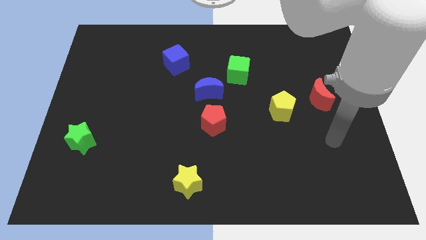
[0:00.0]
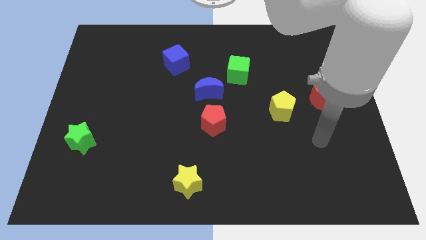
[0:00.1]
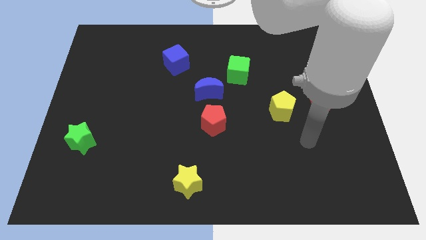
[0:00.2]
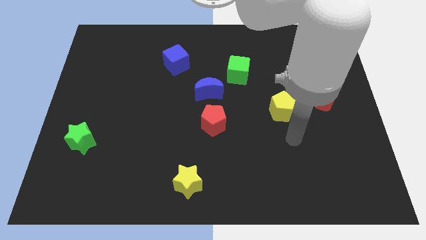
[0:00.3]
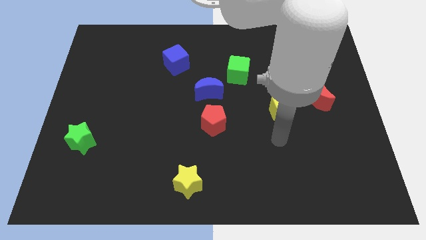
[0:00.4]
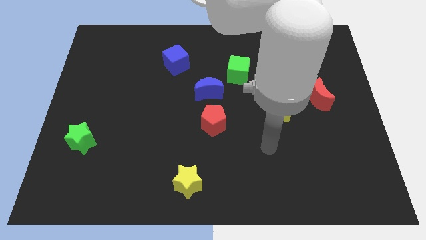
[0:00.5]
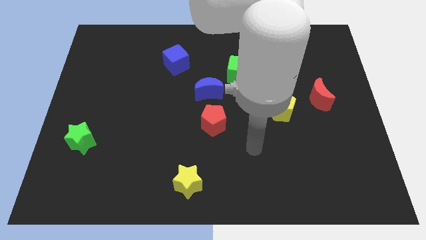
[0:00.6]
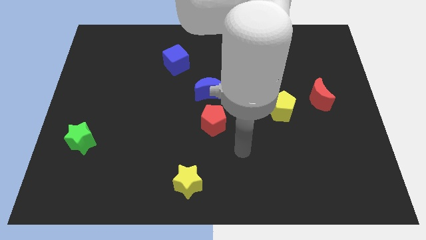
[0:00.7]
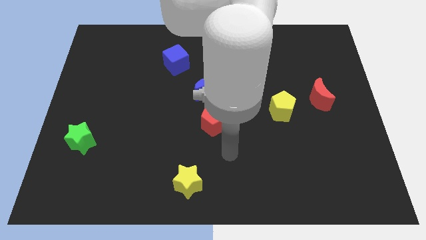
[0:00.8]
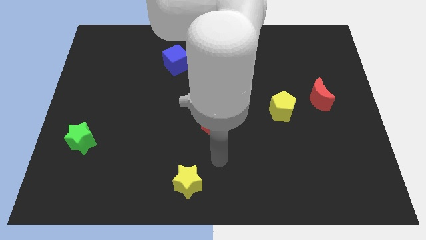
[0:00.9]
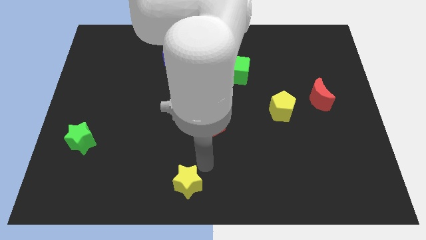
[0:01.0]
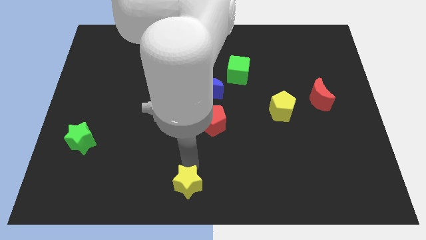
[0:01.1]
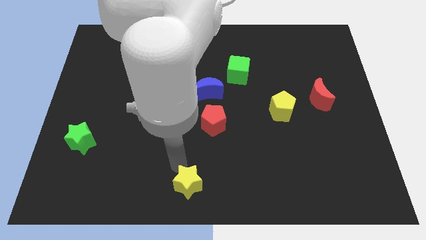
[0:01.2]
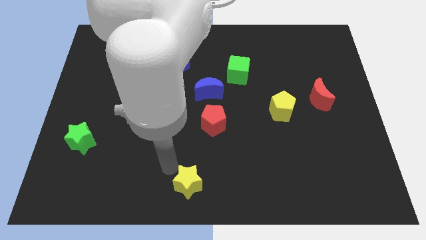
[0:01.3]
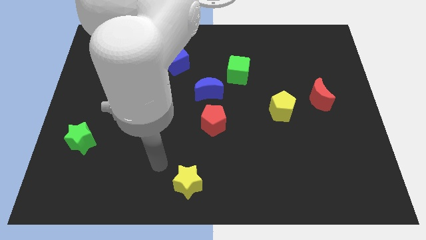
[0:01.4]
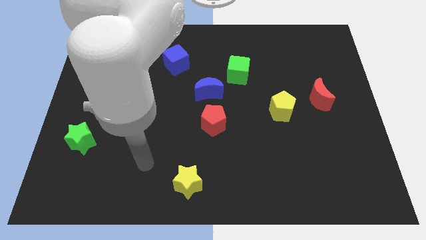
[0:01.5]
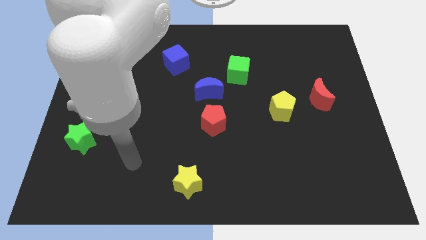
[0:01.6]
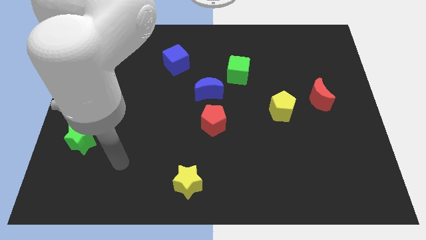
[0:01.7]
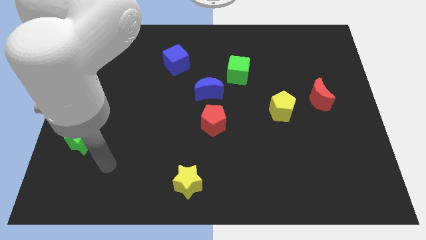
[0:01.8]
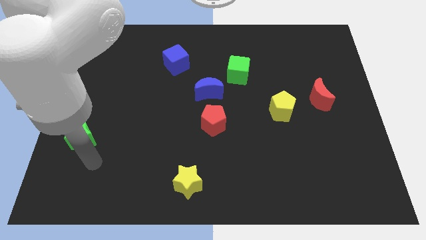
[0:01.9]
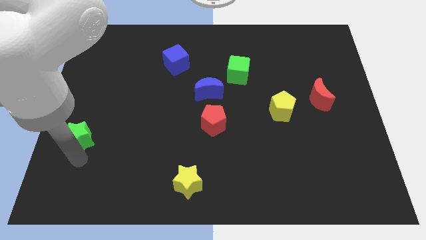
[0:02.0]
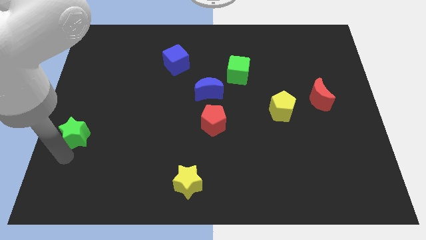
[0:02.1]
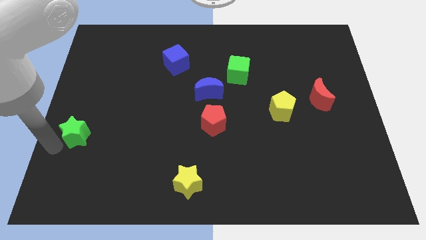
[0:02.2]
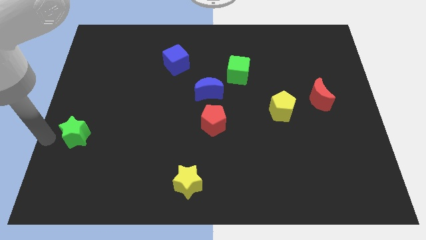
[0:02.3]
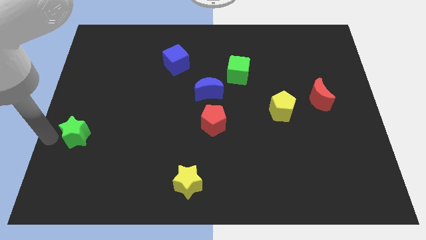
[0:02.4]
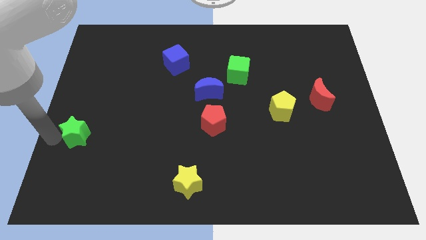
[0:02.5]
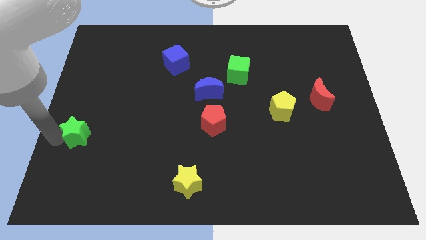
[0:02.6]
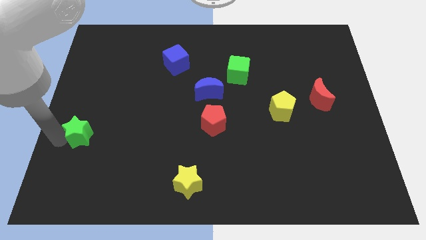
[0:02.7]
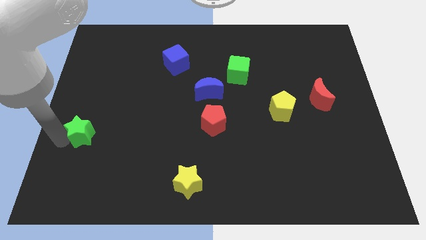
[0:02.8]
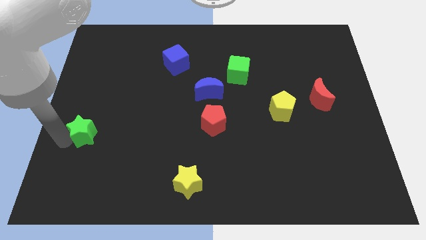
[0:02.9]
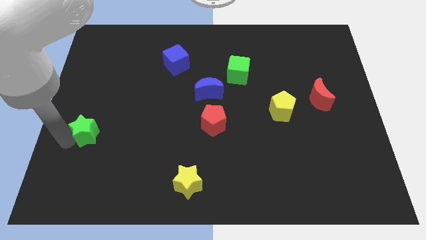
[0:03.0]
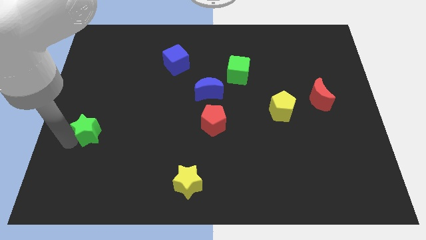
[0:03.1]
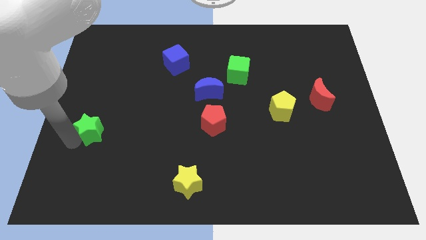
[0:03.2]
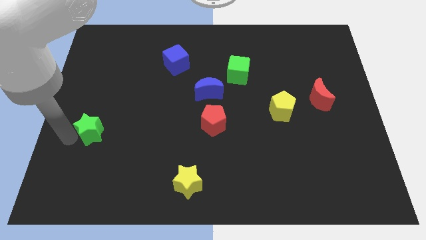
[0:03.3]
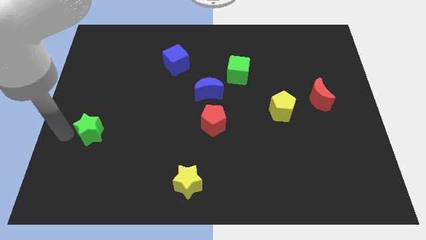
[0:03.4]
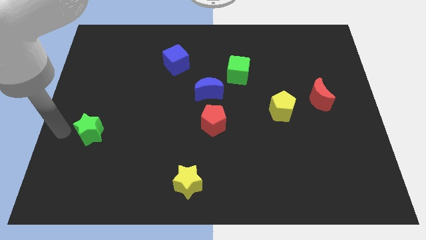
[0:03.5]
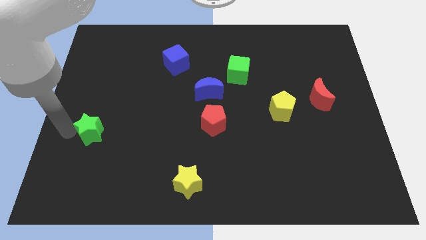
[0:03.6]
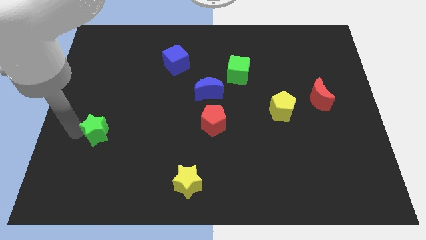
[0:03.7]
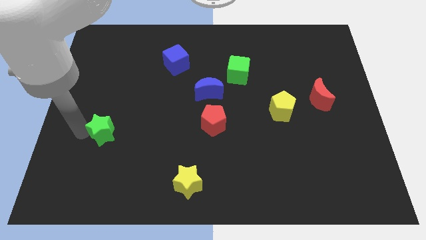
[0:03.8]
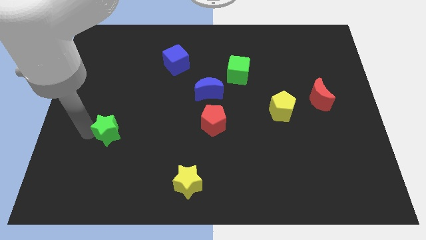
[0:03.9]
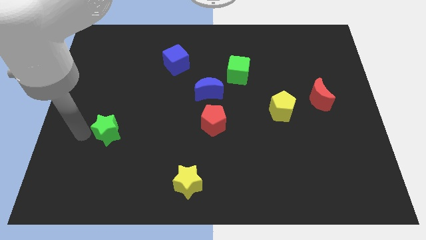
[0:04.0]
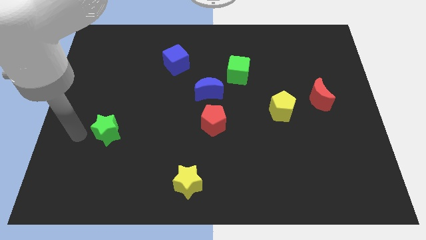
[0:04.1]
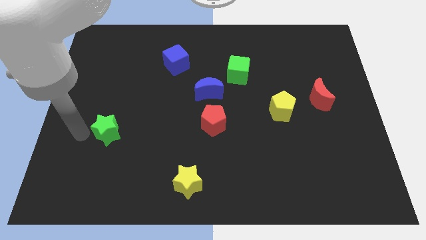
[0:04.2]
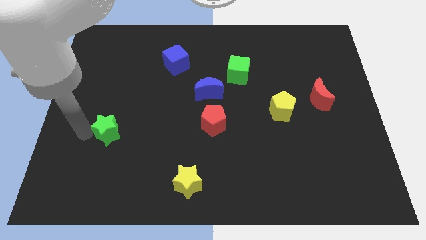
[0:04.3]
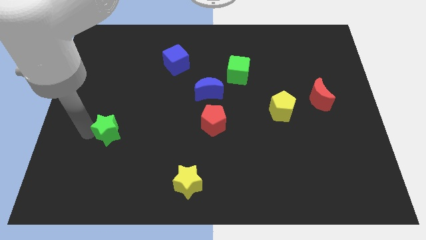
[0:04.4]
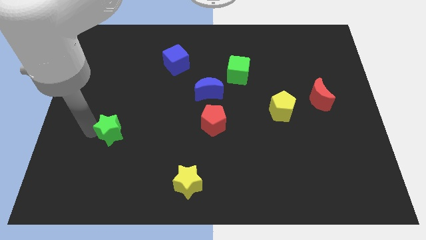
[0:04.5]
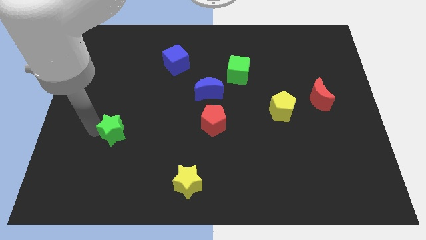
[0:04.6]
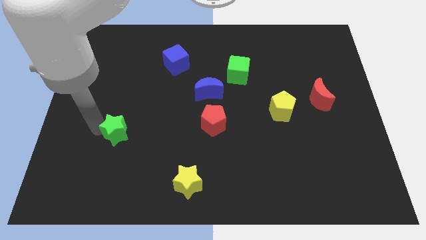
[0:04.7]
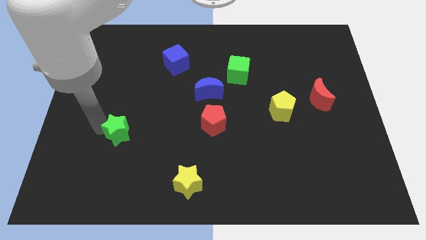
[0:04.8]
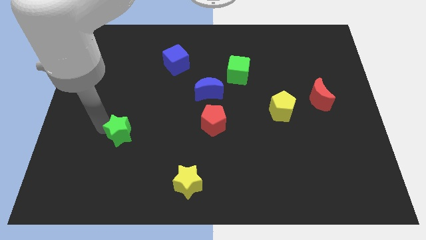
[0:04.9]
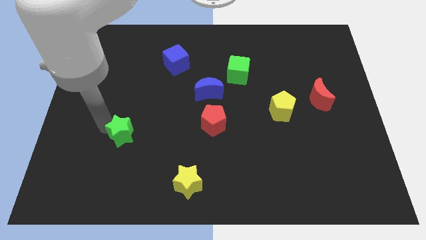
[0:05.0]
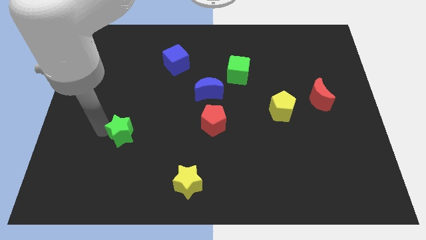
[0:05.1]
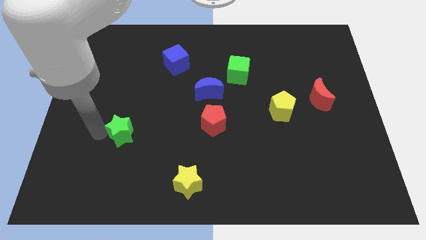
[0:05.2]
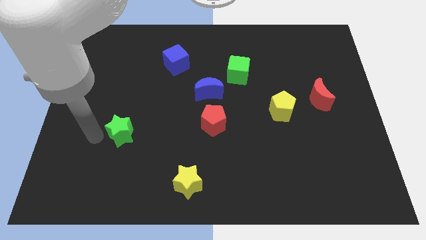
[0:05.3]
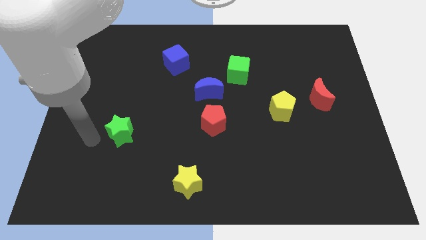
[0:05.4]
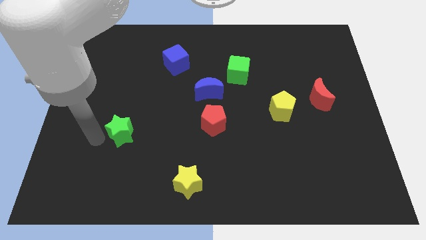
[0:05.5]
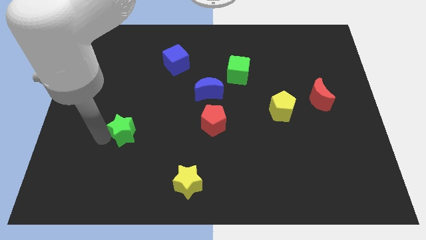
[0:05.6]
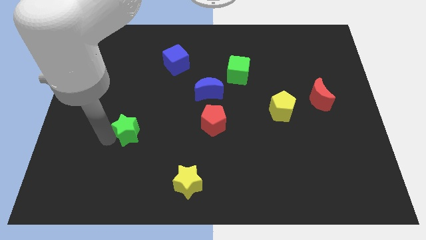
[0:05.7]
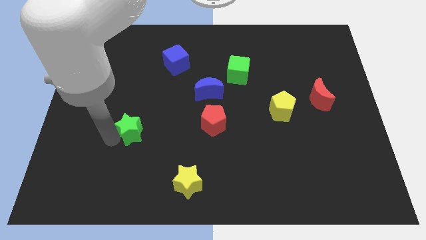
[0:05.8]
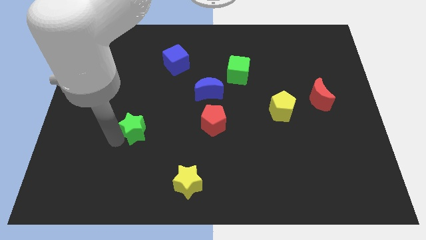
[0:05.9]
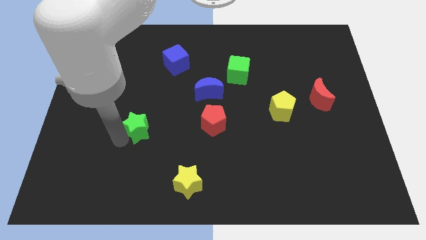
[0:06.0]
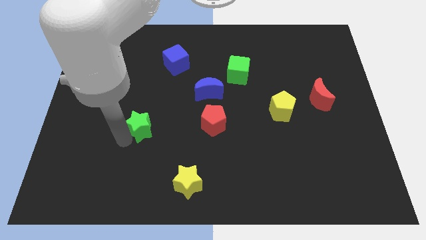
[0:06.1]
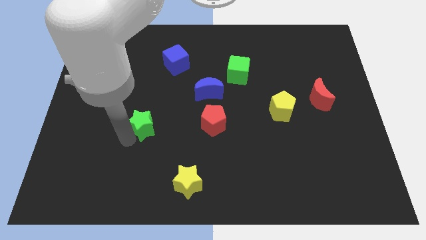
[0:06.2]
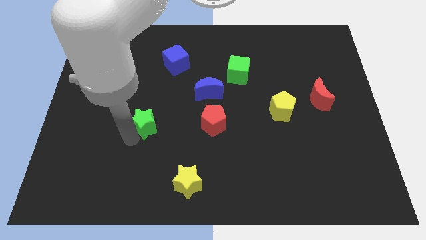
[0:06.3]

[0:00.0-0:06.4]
push the green star to the left of the red pentagon

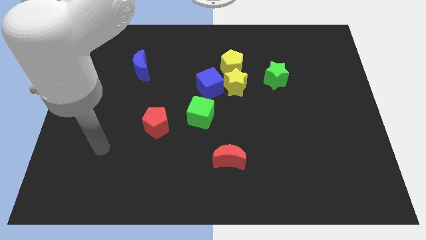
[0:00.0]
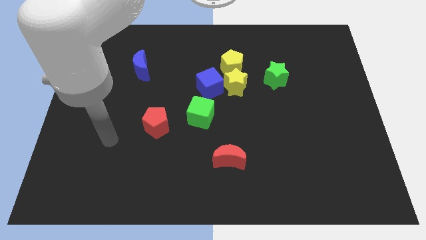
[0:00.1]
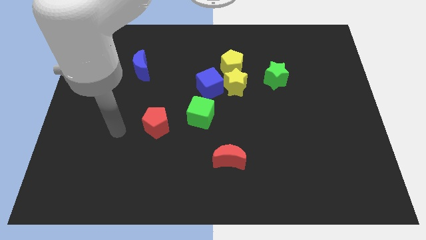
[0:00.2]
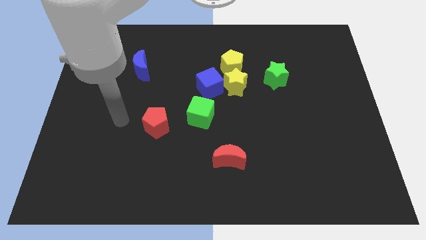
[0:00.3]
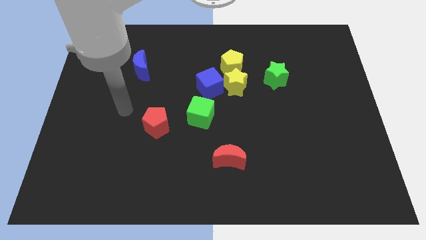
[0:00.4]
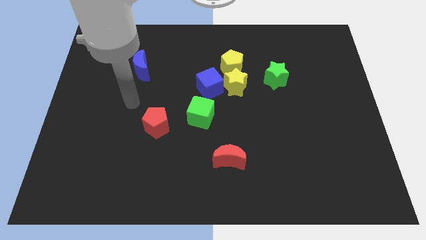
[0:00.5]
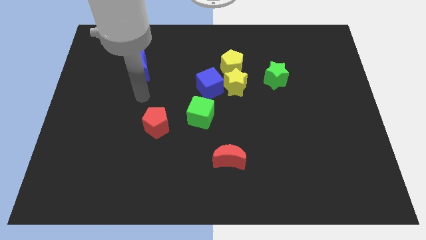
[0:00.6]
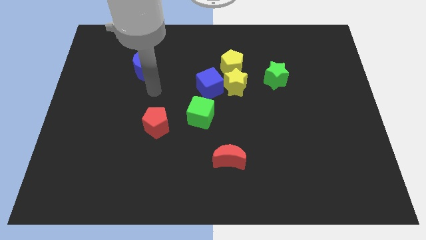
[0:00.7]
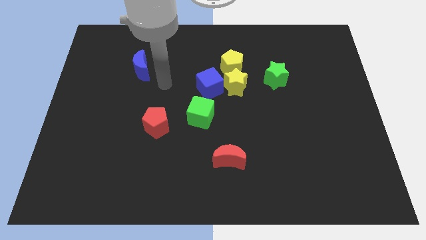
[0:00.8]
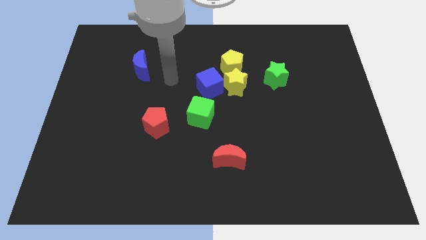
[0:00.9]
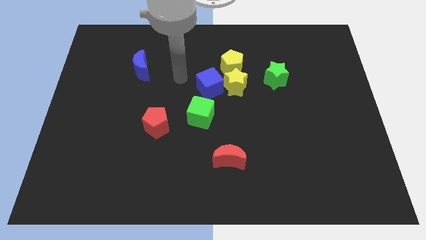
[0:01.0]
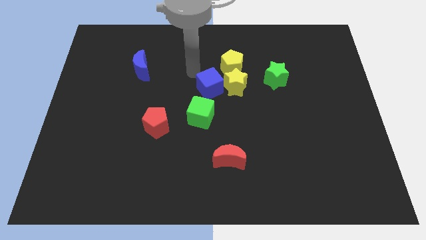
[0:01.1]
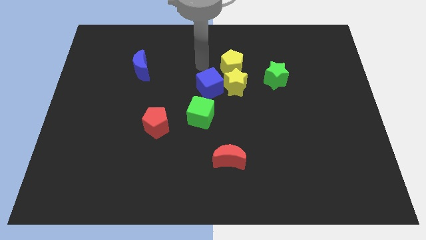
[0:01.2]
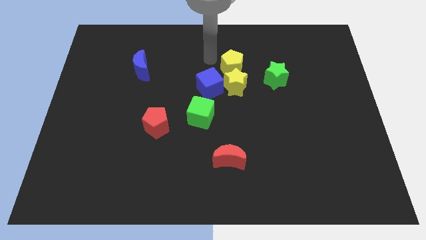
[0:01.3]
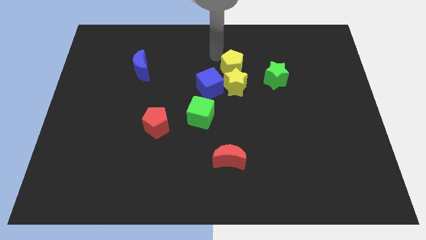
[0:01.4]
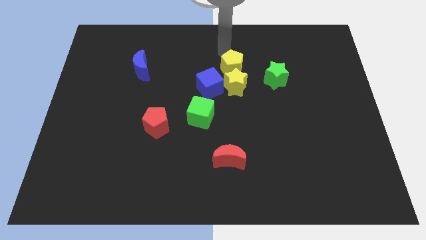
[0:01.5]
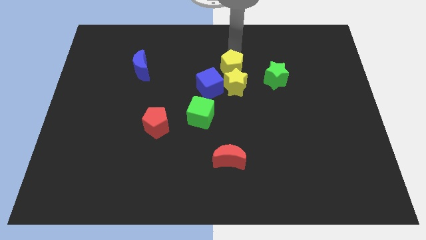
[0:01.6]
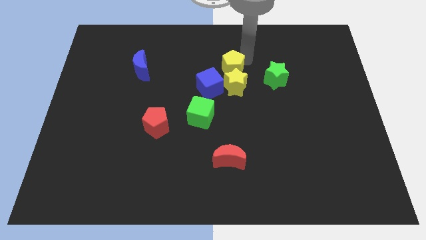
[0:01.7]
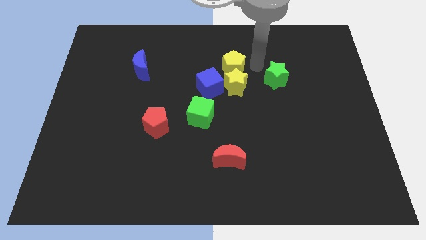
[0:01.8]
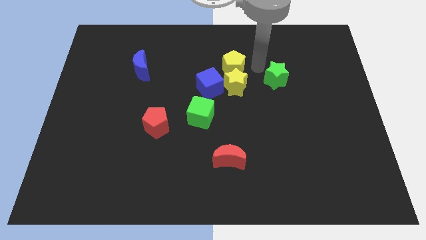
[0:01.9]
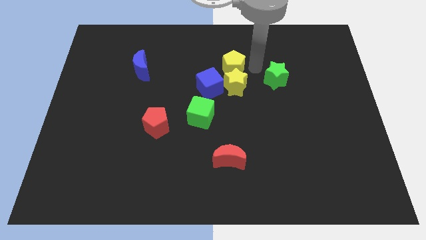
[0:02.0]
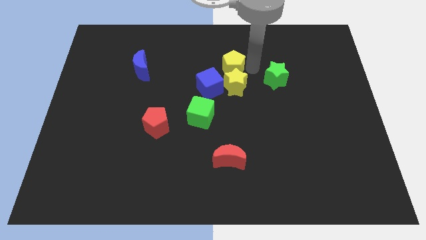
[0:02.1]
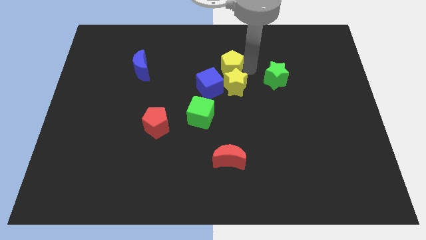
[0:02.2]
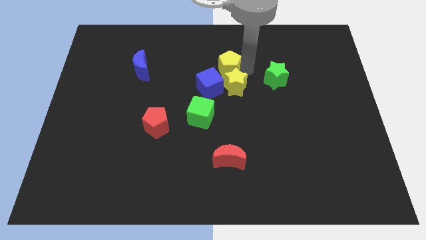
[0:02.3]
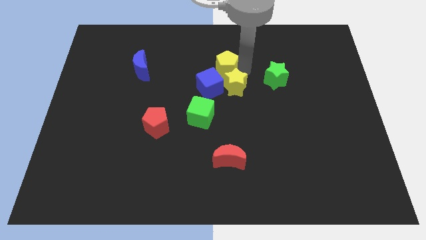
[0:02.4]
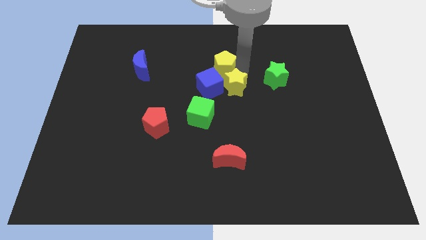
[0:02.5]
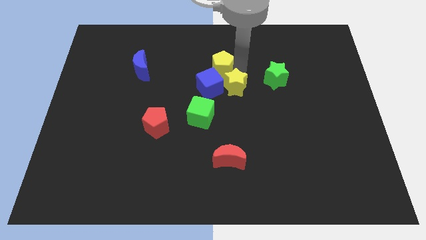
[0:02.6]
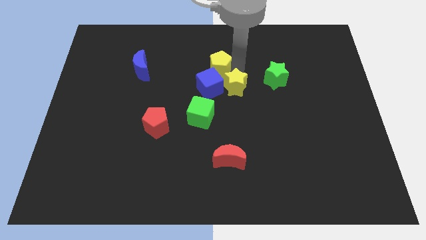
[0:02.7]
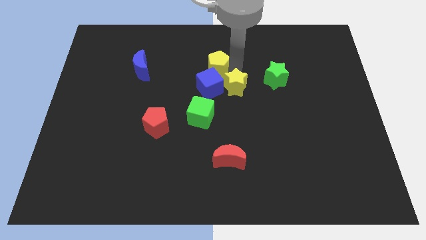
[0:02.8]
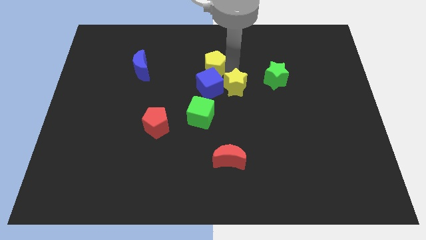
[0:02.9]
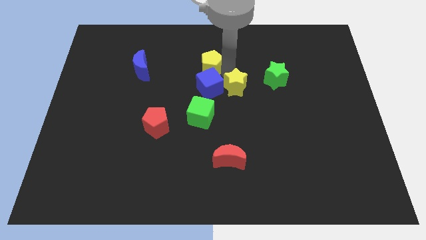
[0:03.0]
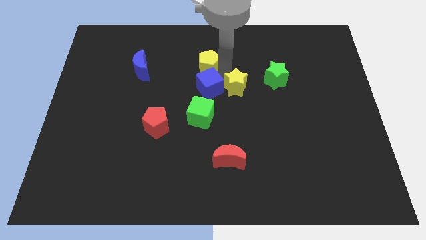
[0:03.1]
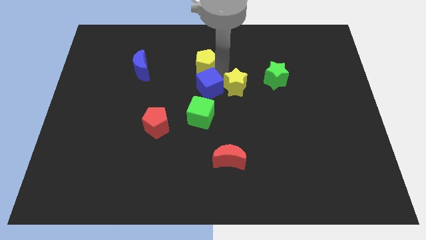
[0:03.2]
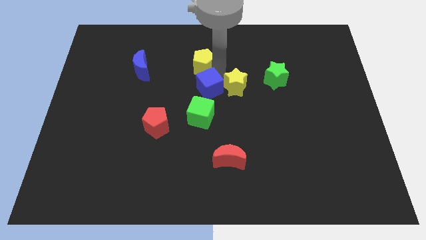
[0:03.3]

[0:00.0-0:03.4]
put the yellow pentagon right of the blue moon
